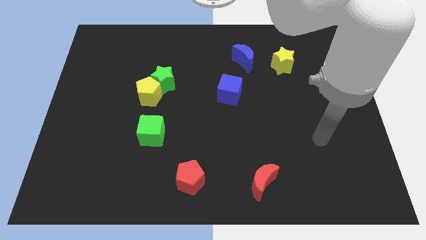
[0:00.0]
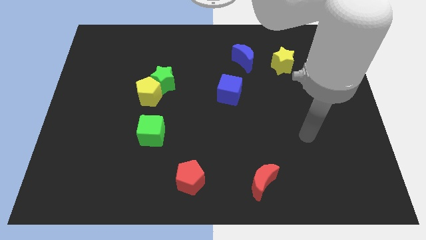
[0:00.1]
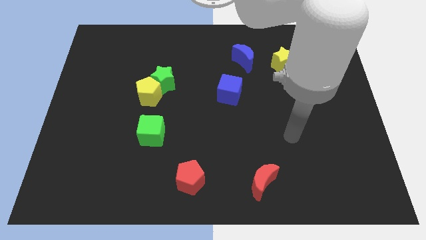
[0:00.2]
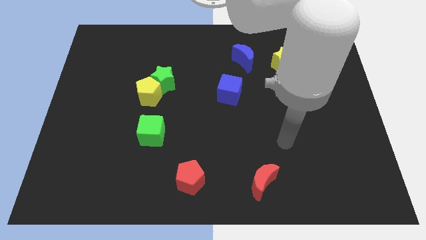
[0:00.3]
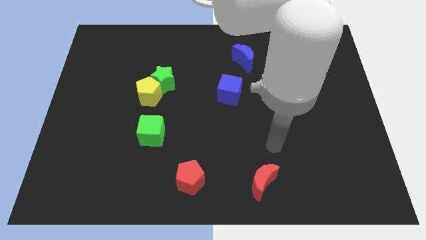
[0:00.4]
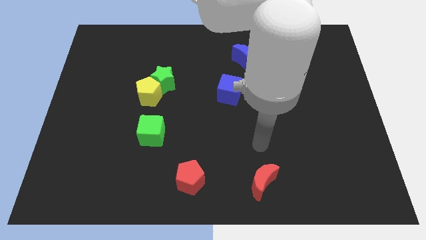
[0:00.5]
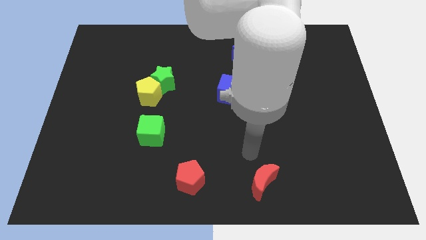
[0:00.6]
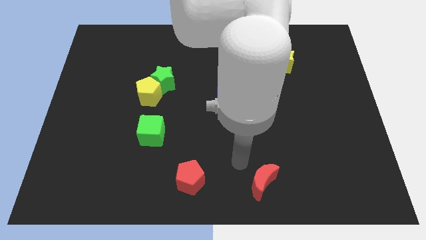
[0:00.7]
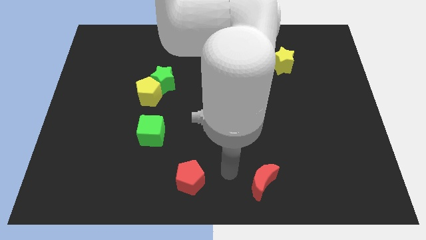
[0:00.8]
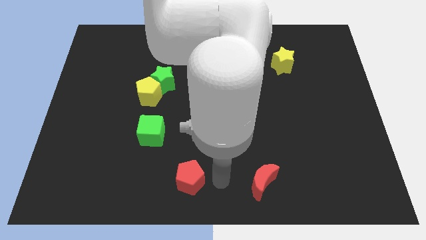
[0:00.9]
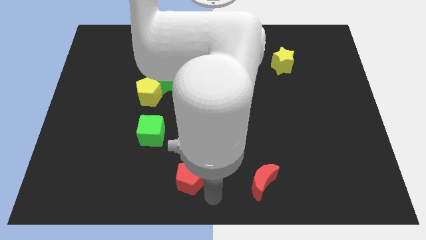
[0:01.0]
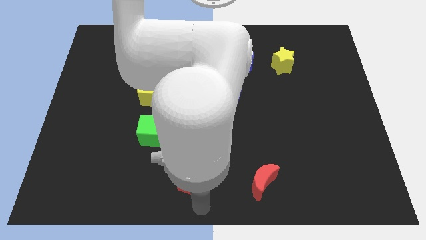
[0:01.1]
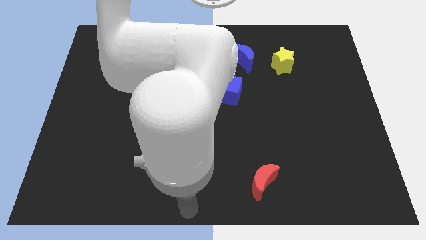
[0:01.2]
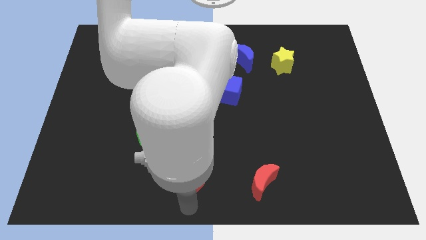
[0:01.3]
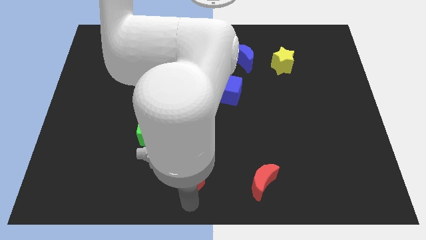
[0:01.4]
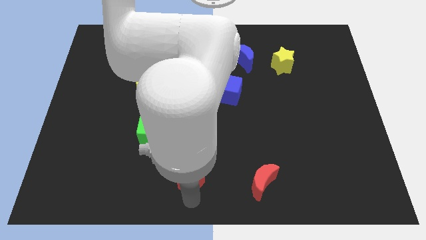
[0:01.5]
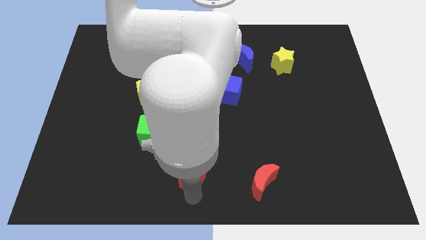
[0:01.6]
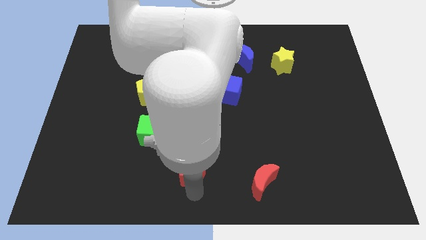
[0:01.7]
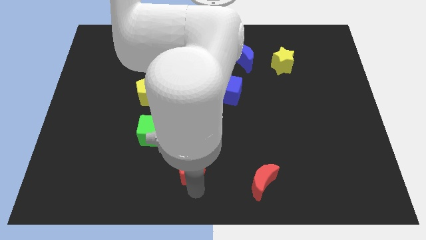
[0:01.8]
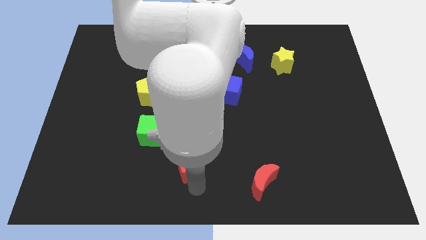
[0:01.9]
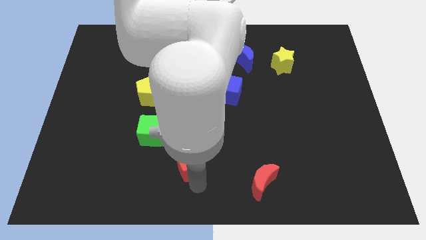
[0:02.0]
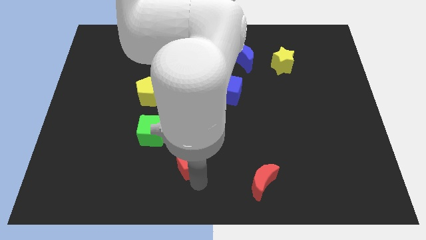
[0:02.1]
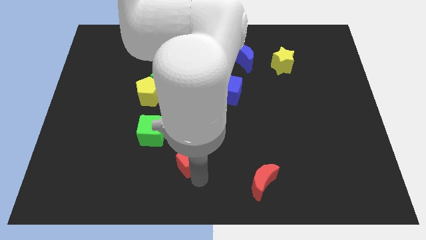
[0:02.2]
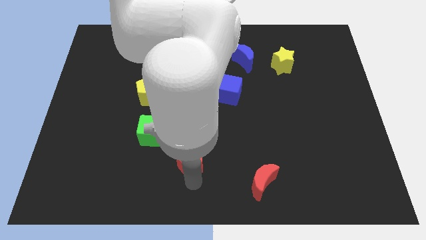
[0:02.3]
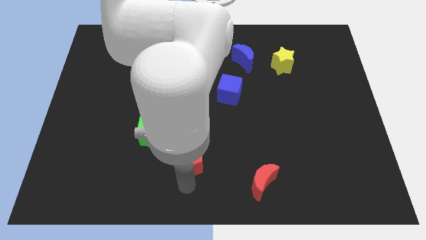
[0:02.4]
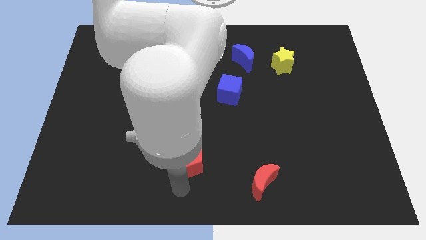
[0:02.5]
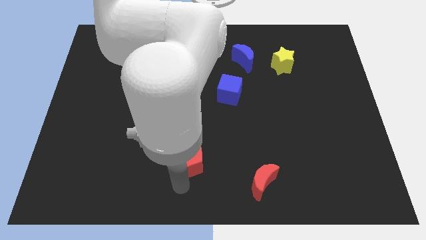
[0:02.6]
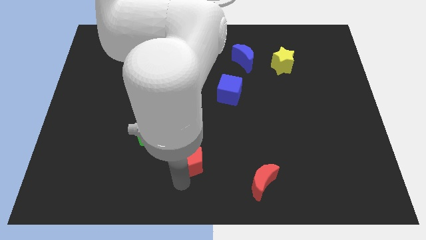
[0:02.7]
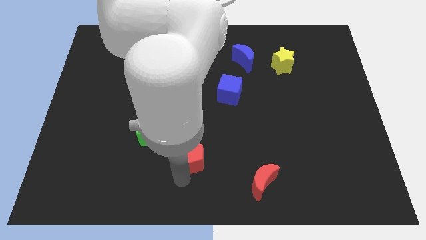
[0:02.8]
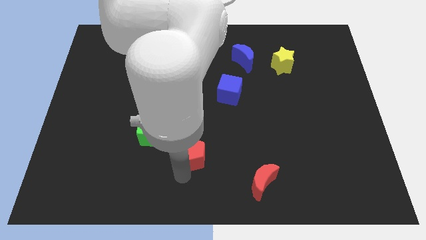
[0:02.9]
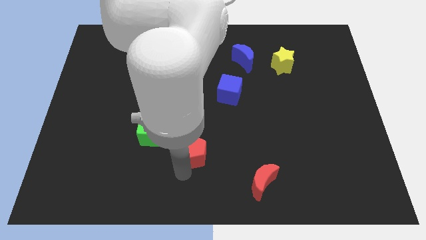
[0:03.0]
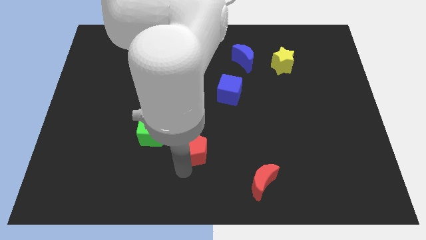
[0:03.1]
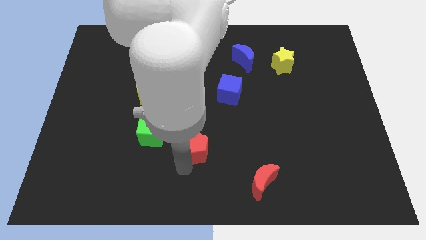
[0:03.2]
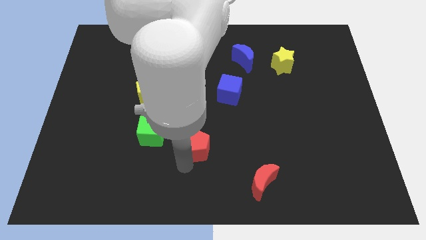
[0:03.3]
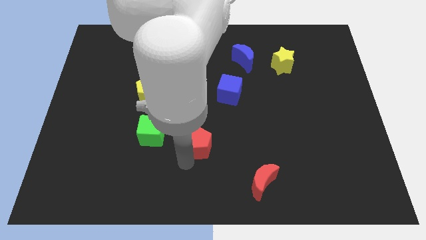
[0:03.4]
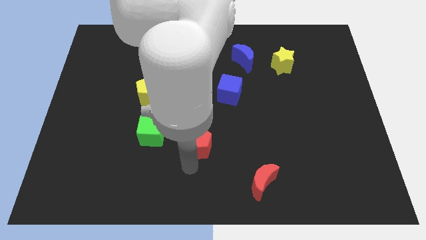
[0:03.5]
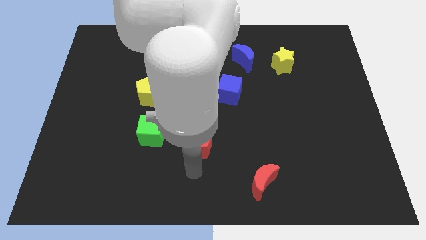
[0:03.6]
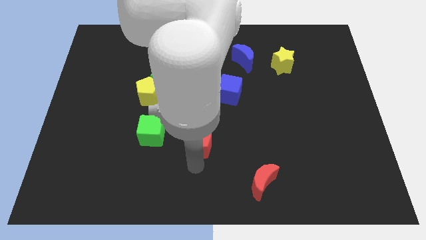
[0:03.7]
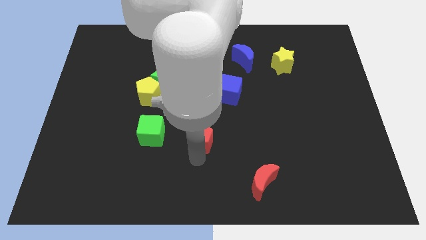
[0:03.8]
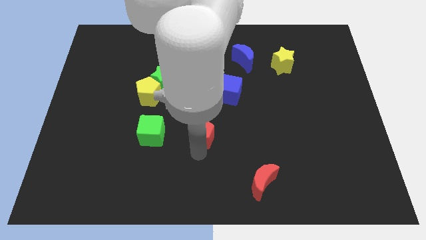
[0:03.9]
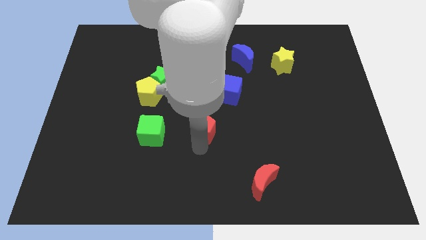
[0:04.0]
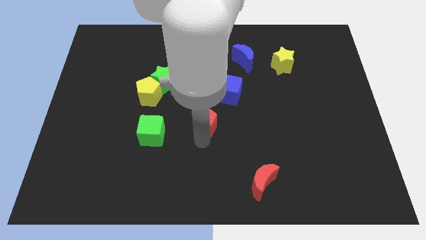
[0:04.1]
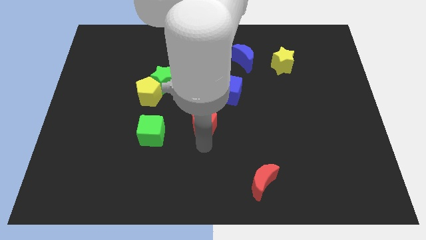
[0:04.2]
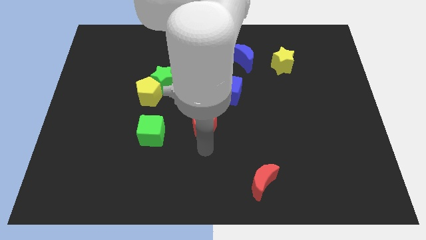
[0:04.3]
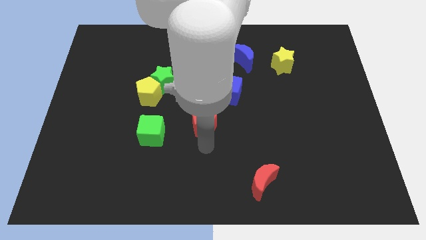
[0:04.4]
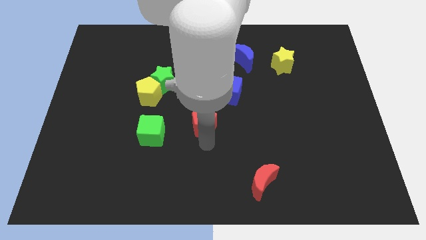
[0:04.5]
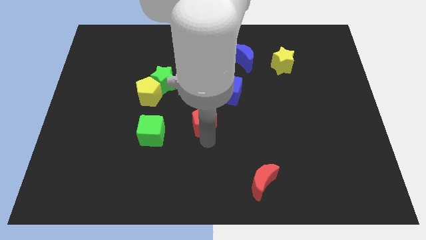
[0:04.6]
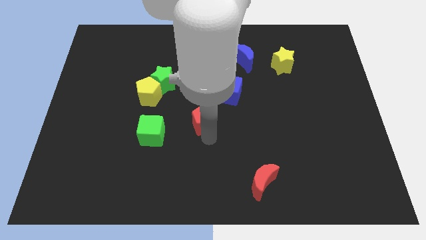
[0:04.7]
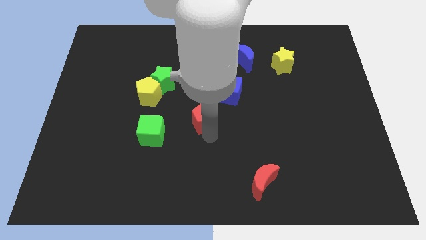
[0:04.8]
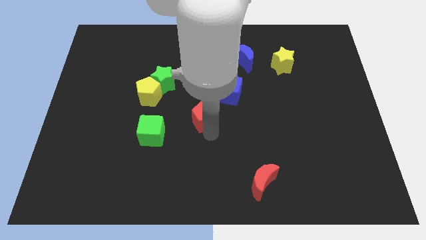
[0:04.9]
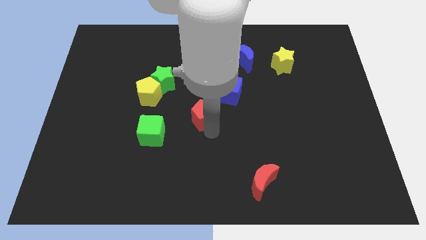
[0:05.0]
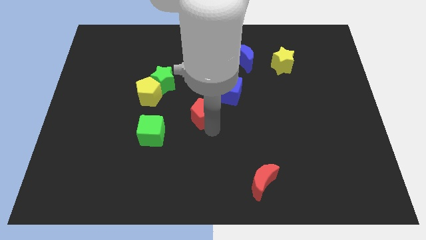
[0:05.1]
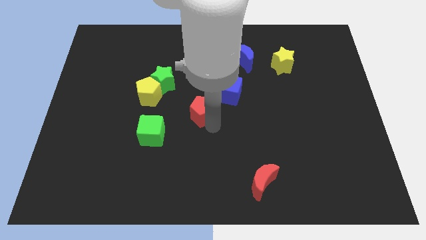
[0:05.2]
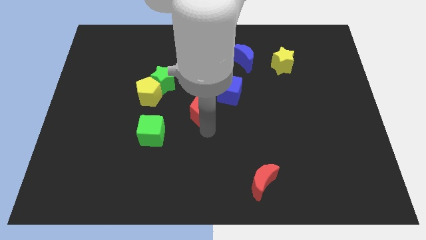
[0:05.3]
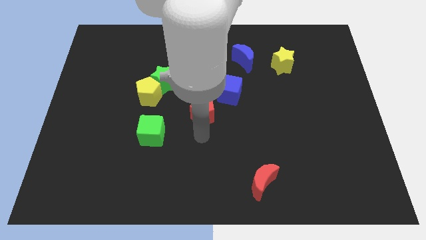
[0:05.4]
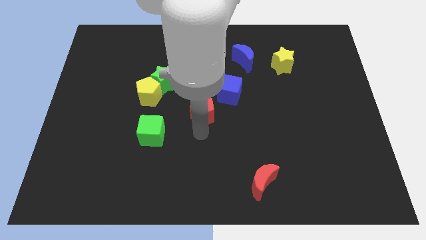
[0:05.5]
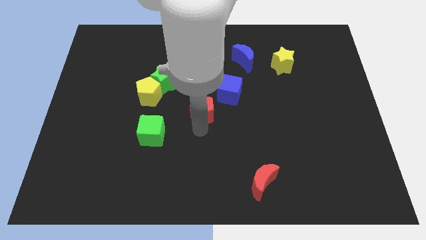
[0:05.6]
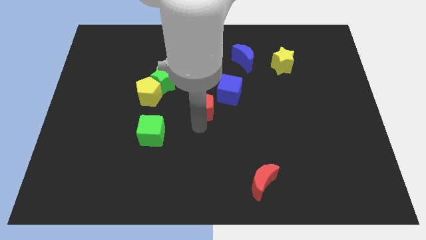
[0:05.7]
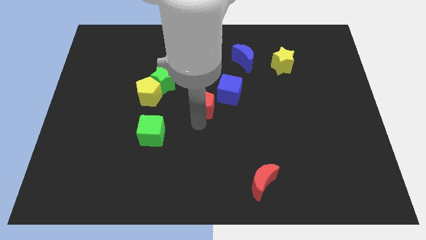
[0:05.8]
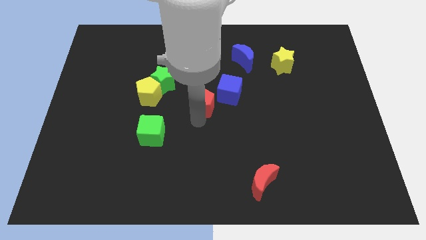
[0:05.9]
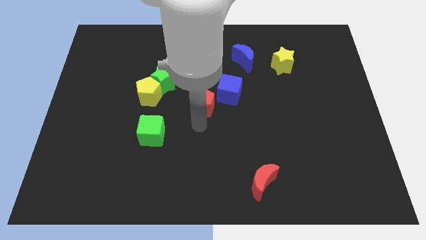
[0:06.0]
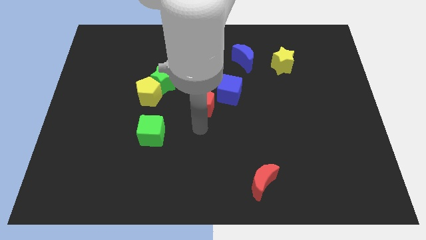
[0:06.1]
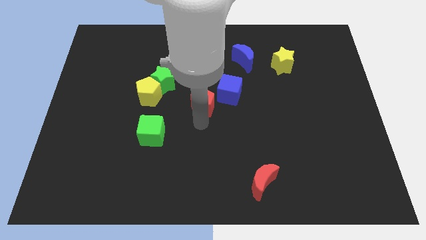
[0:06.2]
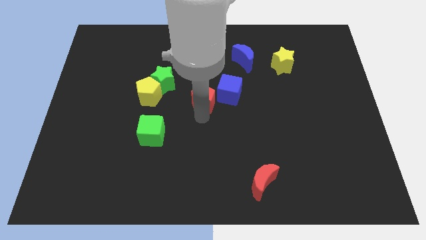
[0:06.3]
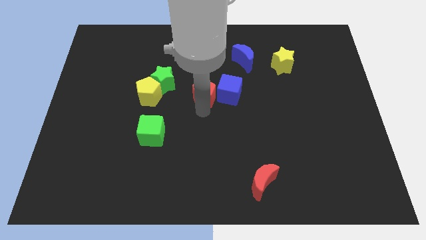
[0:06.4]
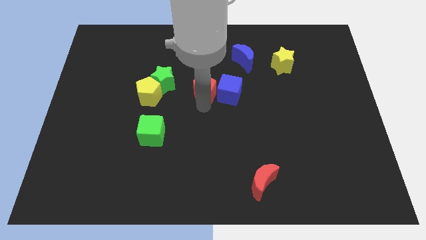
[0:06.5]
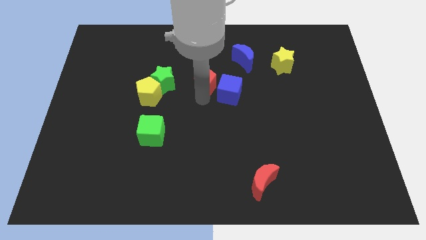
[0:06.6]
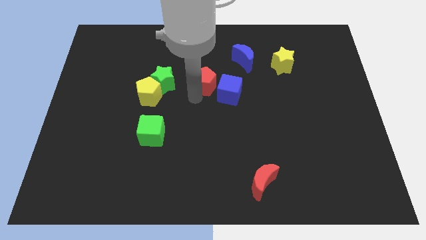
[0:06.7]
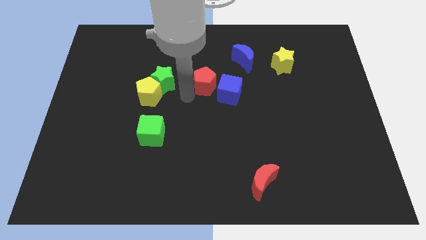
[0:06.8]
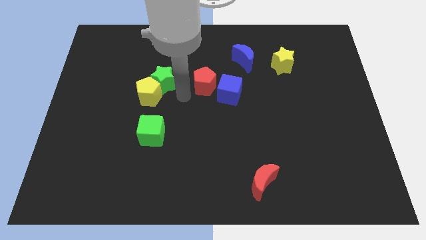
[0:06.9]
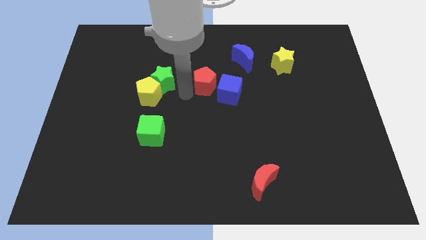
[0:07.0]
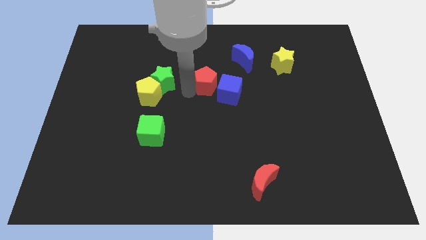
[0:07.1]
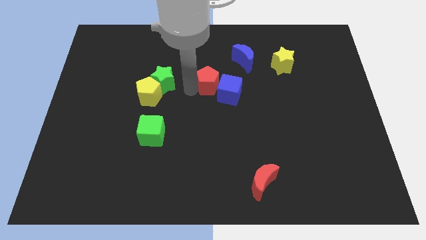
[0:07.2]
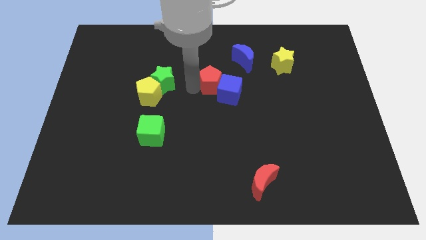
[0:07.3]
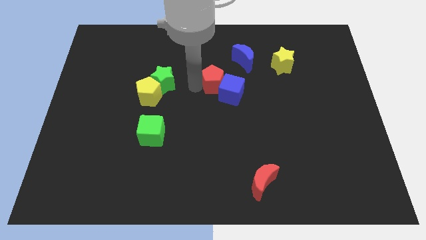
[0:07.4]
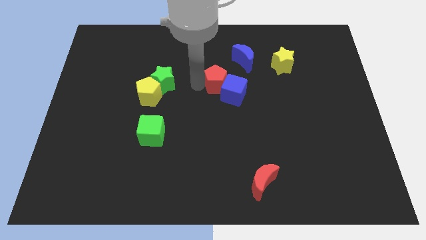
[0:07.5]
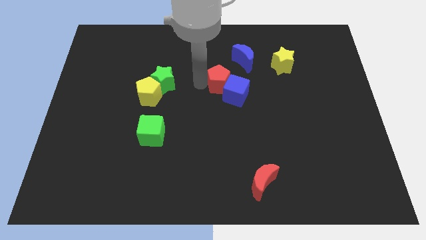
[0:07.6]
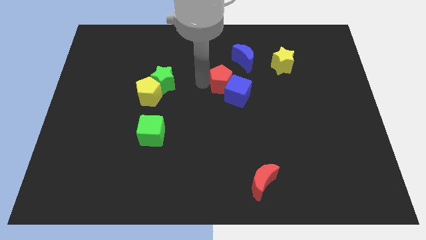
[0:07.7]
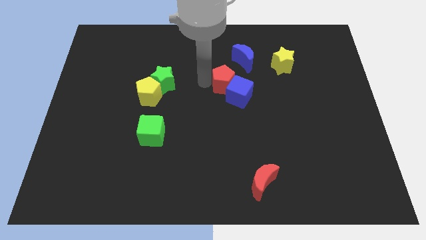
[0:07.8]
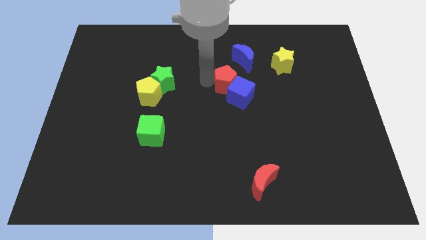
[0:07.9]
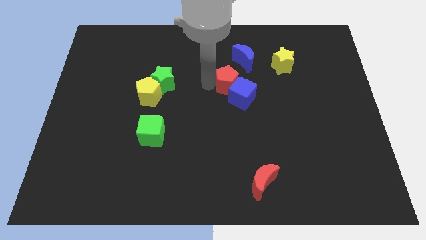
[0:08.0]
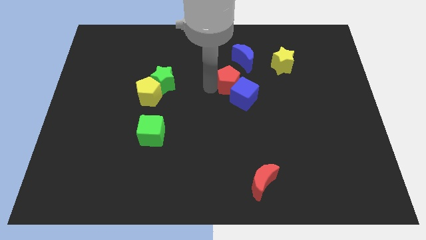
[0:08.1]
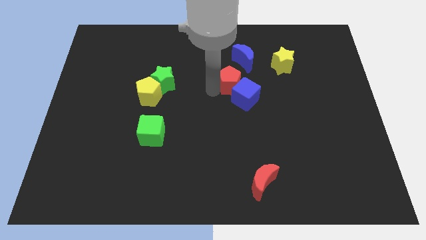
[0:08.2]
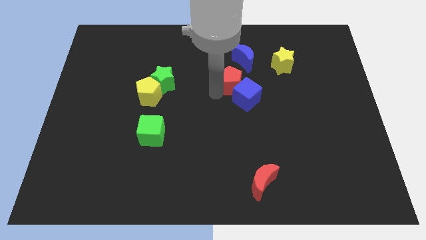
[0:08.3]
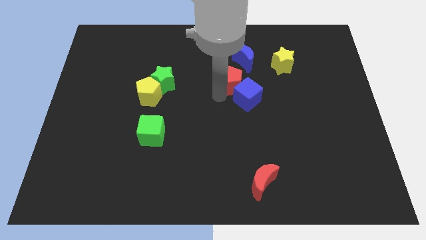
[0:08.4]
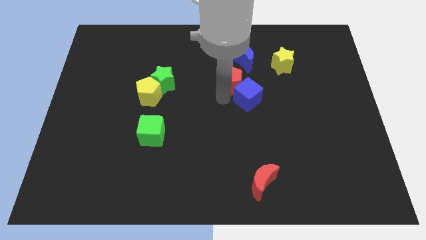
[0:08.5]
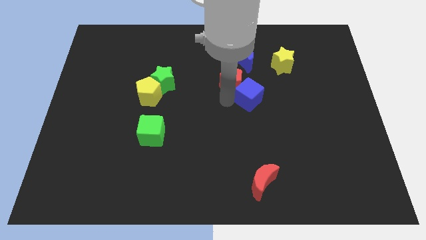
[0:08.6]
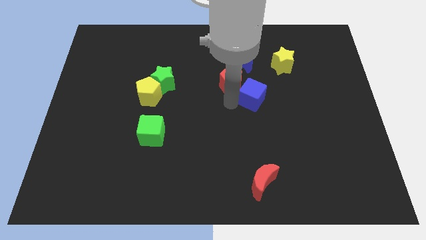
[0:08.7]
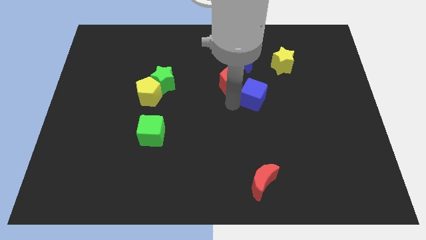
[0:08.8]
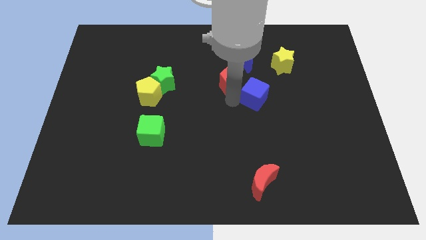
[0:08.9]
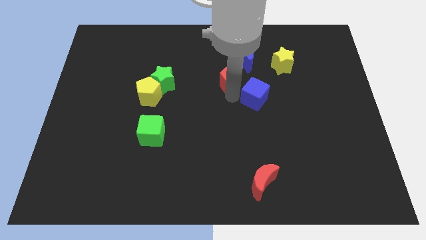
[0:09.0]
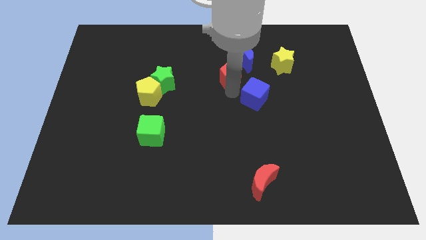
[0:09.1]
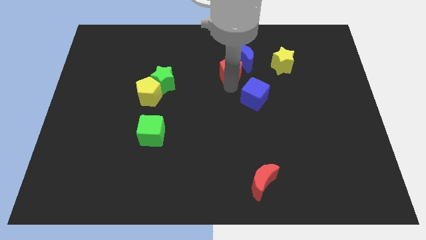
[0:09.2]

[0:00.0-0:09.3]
push the red pentagon close to the blue moon
